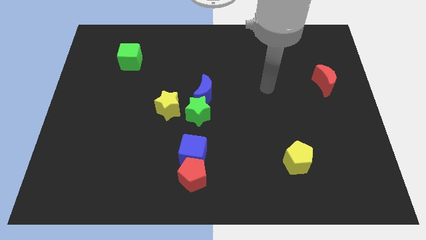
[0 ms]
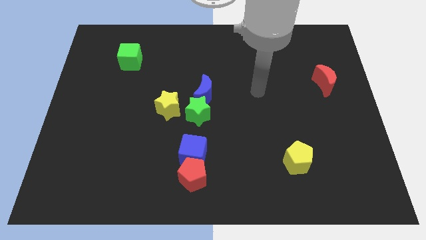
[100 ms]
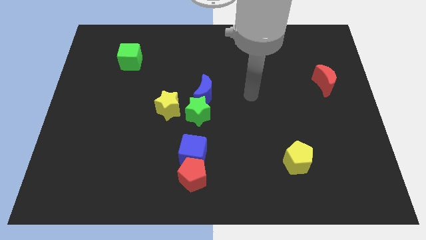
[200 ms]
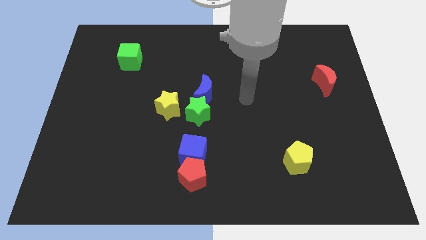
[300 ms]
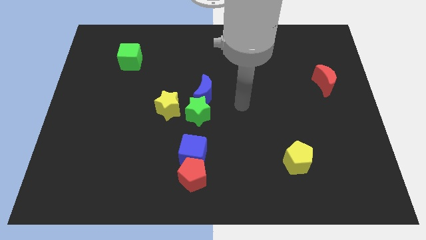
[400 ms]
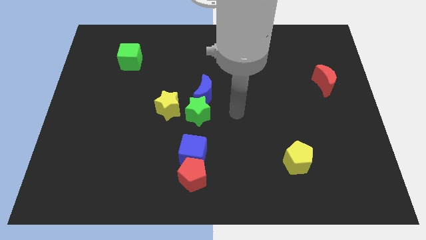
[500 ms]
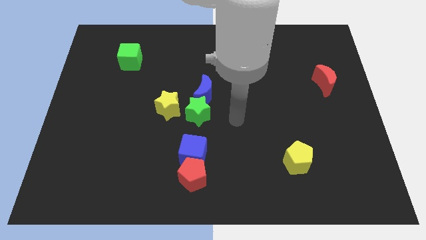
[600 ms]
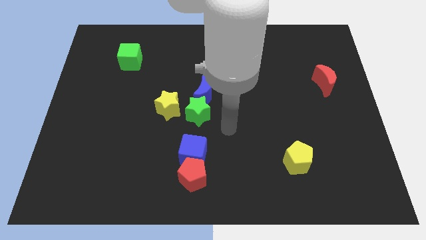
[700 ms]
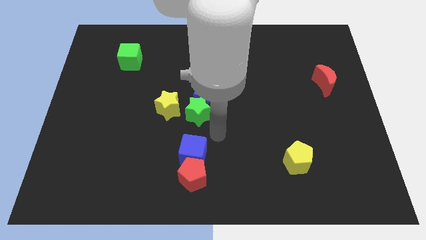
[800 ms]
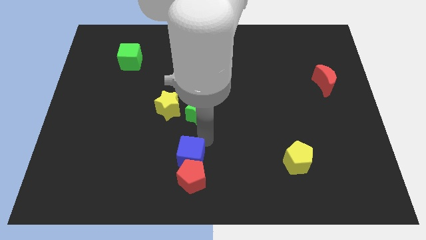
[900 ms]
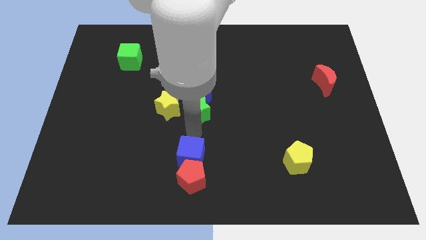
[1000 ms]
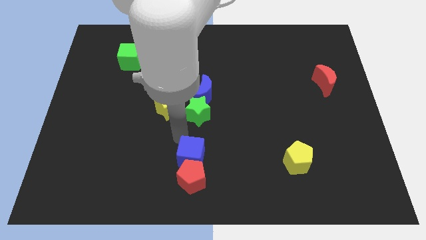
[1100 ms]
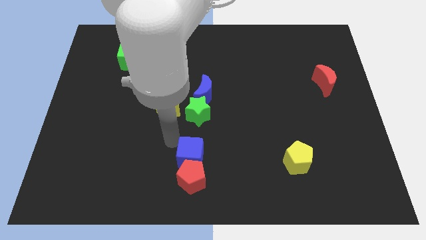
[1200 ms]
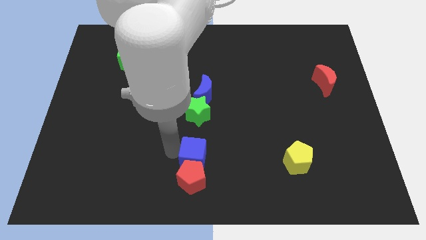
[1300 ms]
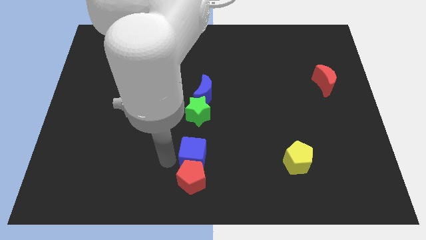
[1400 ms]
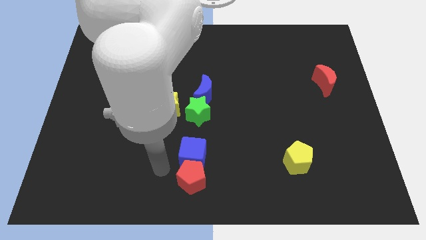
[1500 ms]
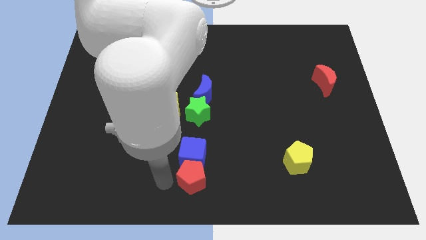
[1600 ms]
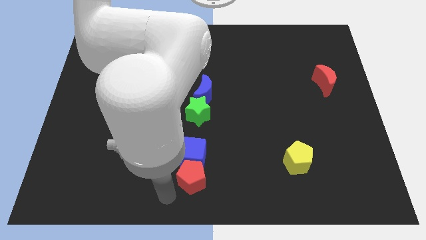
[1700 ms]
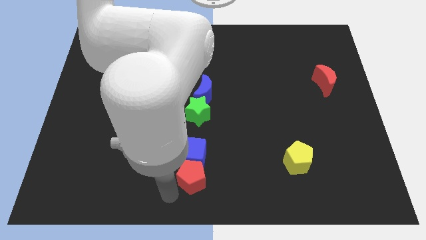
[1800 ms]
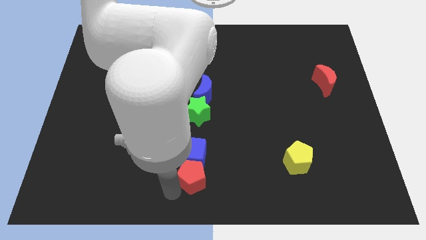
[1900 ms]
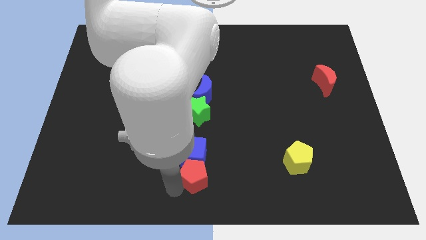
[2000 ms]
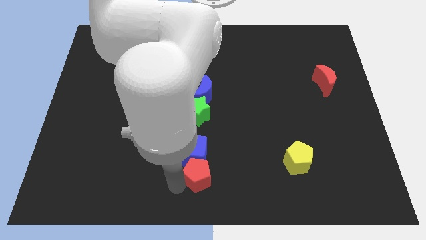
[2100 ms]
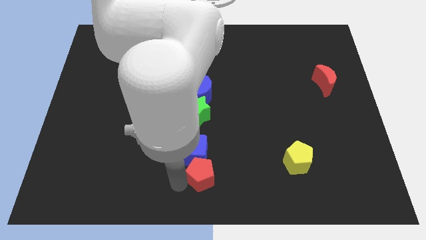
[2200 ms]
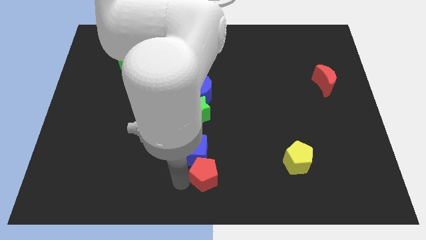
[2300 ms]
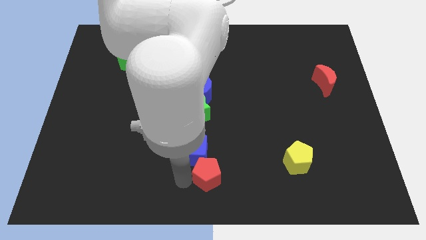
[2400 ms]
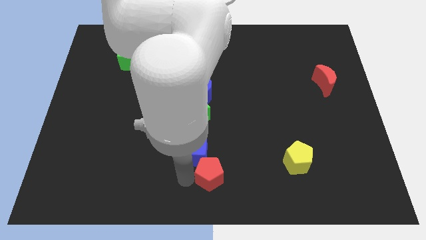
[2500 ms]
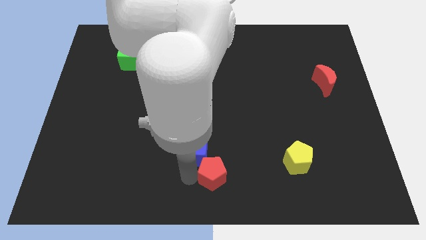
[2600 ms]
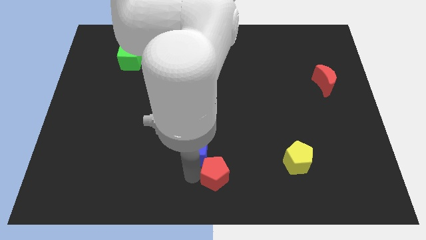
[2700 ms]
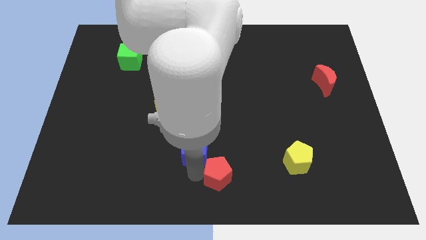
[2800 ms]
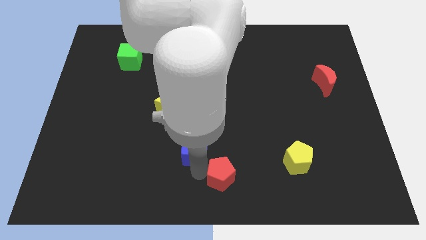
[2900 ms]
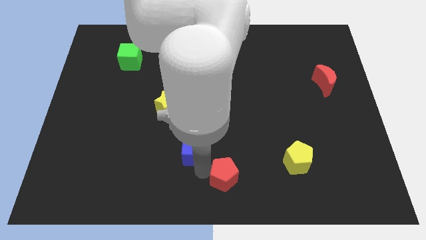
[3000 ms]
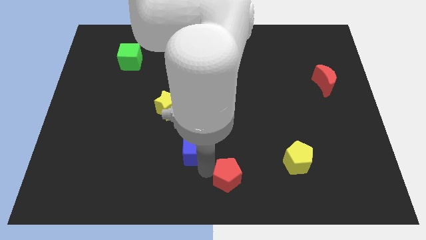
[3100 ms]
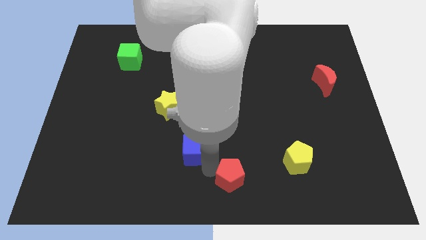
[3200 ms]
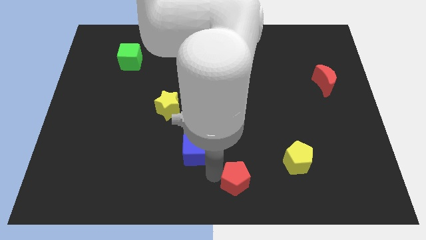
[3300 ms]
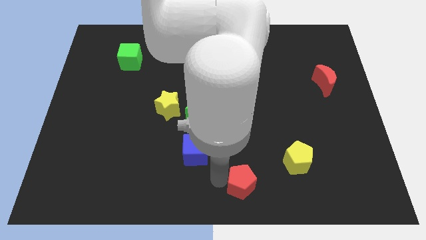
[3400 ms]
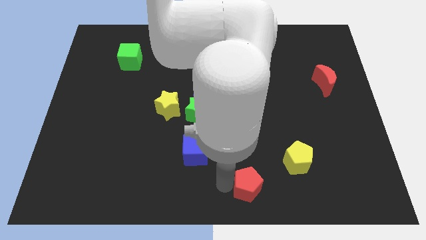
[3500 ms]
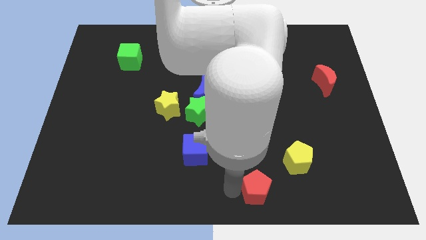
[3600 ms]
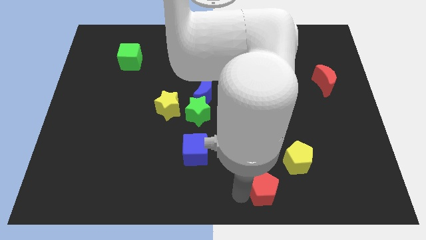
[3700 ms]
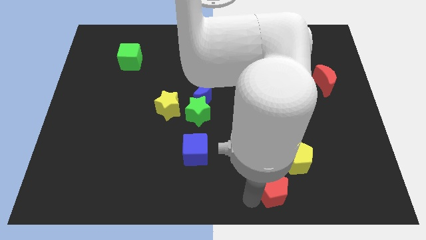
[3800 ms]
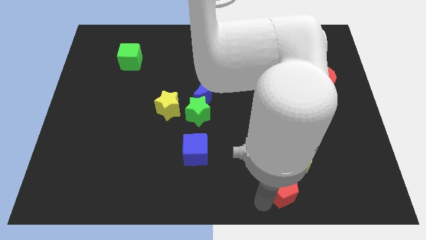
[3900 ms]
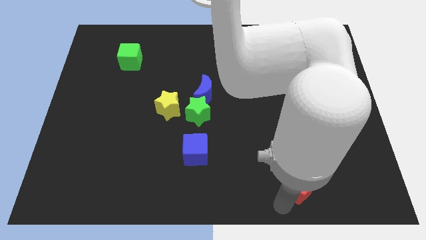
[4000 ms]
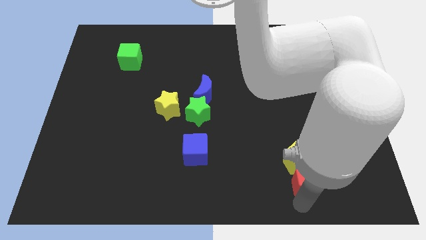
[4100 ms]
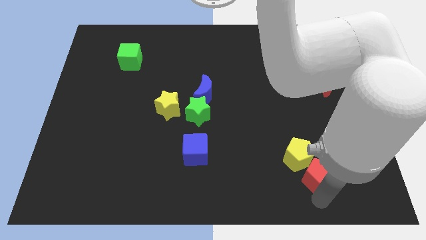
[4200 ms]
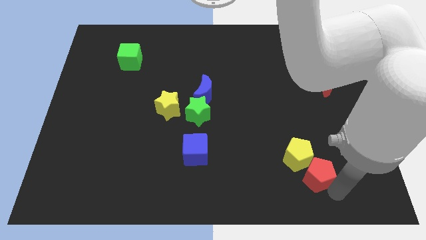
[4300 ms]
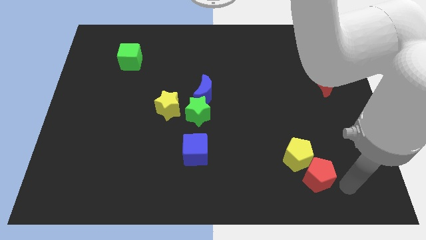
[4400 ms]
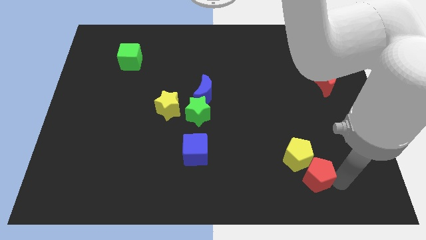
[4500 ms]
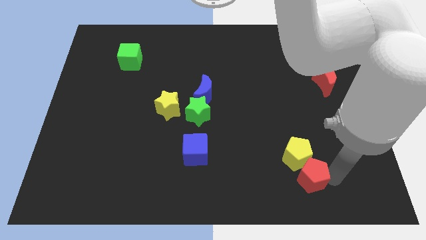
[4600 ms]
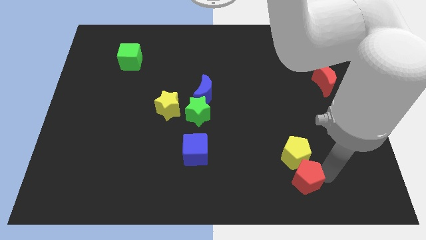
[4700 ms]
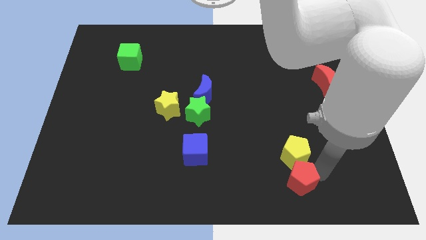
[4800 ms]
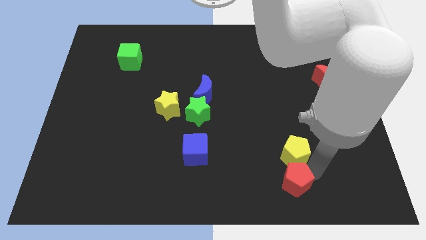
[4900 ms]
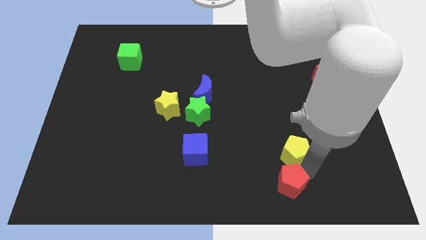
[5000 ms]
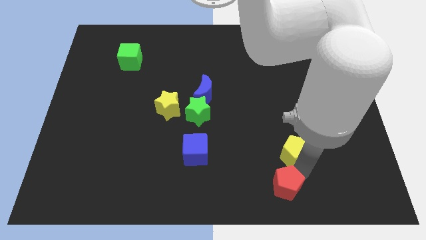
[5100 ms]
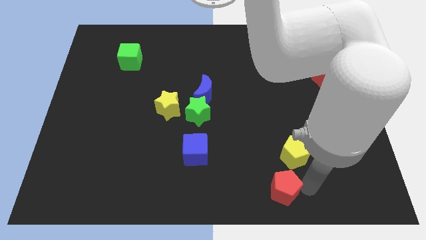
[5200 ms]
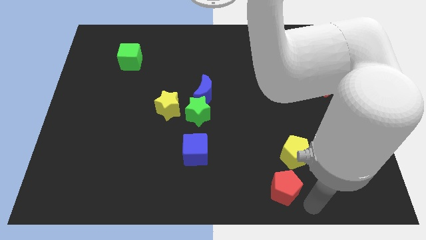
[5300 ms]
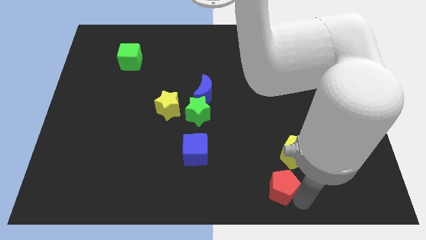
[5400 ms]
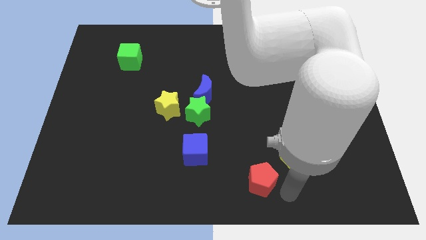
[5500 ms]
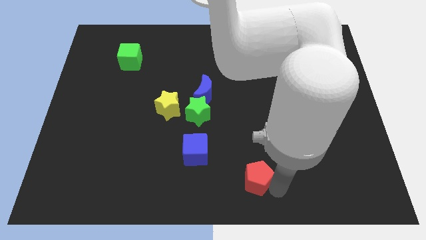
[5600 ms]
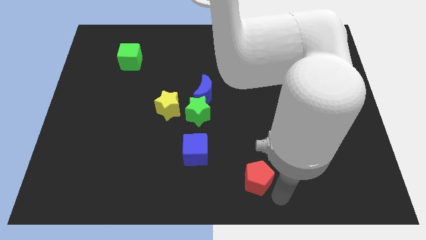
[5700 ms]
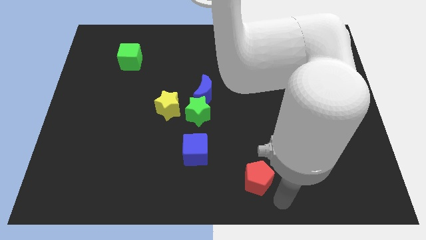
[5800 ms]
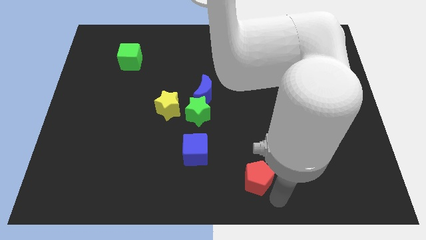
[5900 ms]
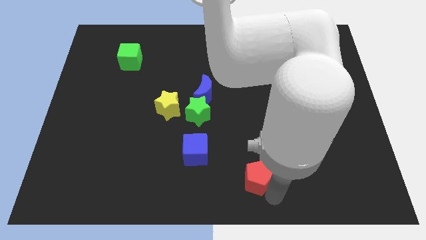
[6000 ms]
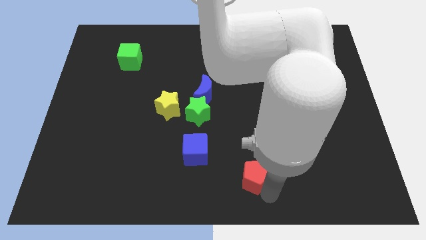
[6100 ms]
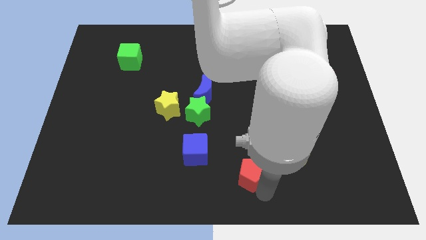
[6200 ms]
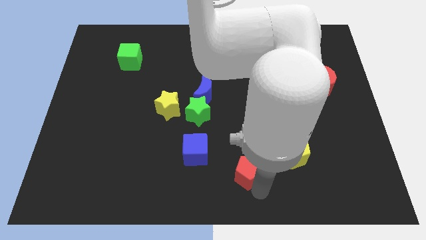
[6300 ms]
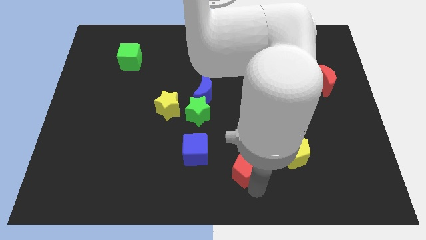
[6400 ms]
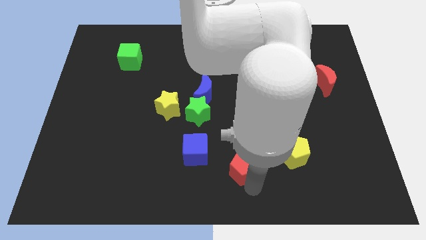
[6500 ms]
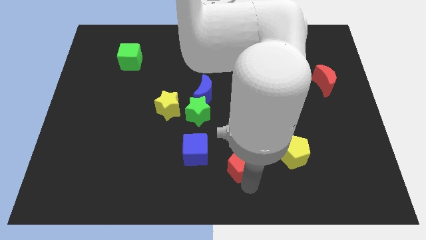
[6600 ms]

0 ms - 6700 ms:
slide the red pentagon a little upwards and to the right

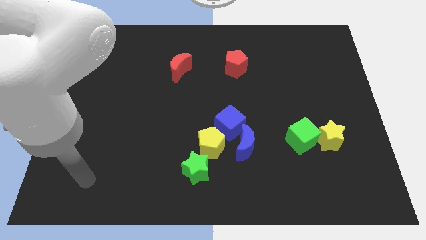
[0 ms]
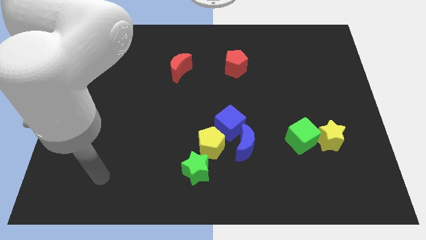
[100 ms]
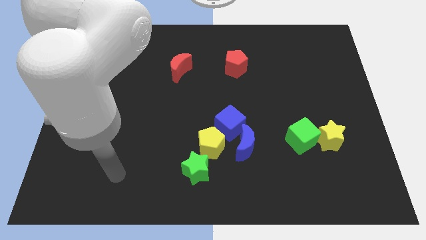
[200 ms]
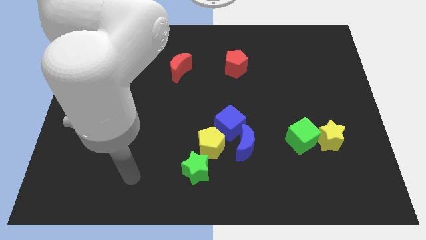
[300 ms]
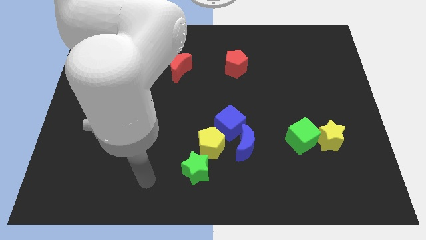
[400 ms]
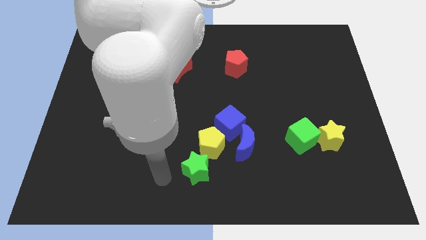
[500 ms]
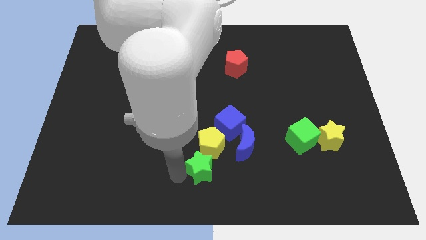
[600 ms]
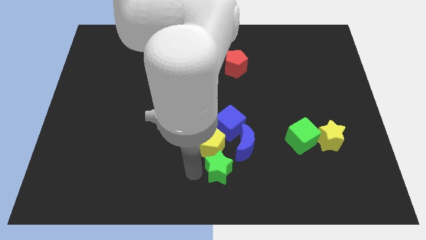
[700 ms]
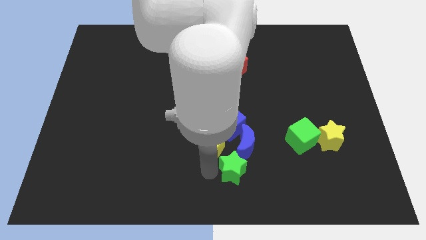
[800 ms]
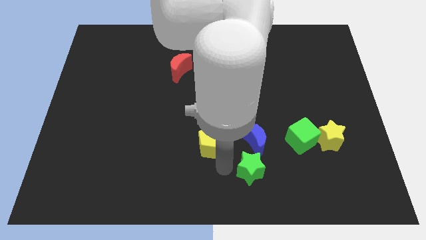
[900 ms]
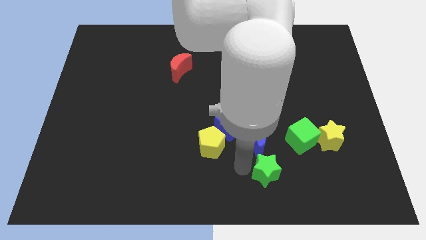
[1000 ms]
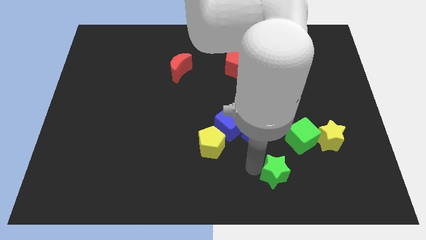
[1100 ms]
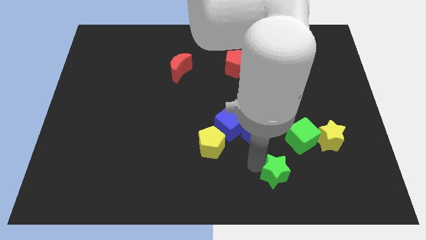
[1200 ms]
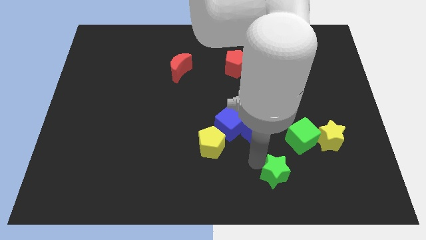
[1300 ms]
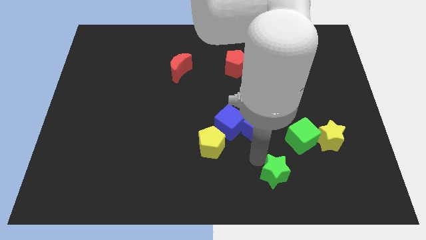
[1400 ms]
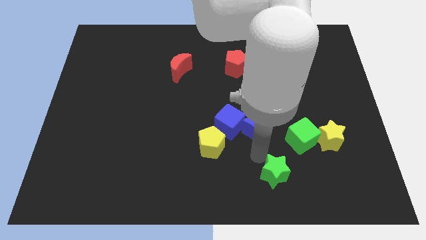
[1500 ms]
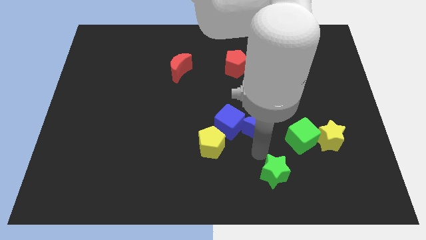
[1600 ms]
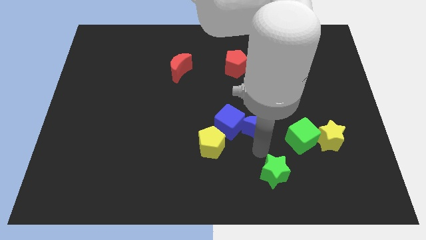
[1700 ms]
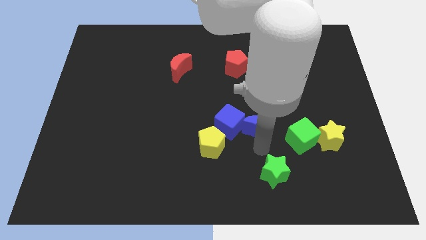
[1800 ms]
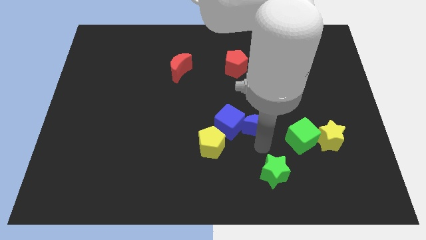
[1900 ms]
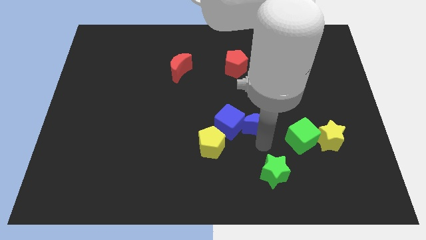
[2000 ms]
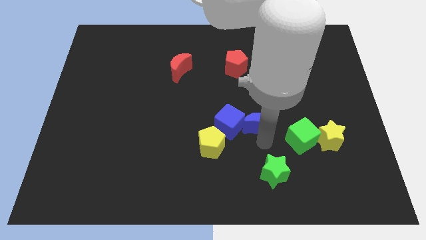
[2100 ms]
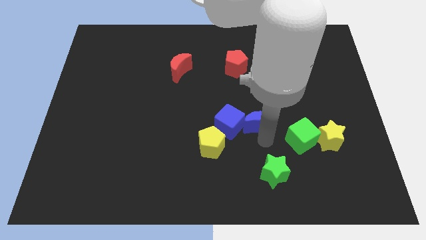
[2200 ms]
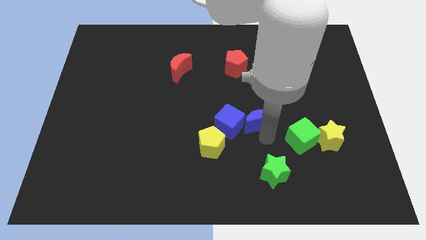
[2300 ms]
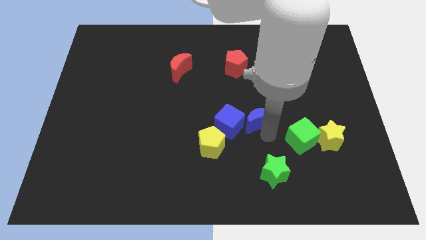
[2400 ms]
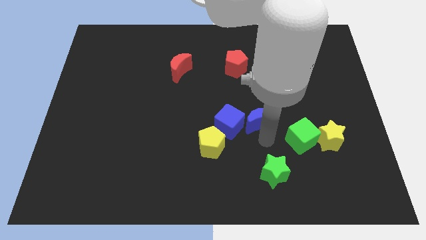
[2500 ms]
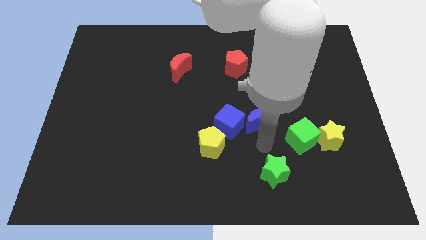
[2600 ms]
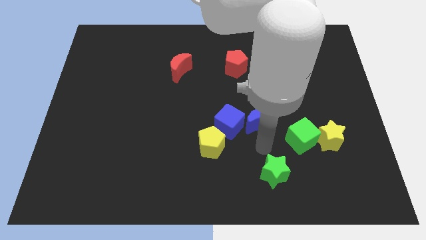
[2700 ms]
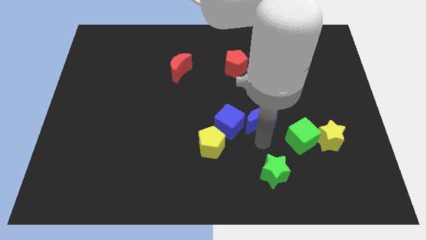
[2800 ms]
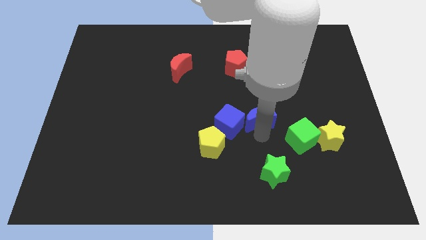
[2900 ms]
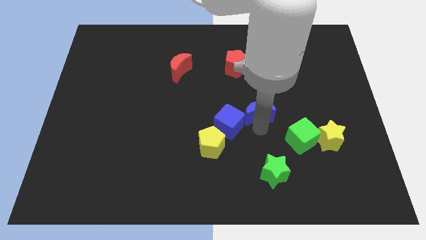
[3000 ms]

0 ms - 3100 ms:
move the blue moon up slightly
